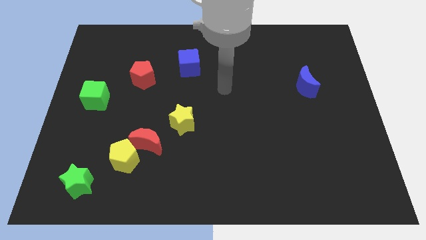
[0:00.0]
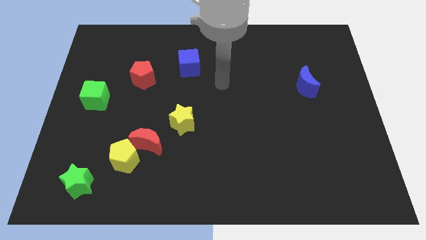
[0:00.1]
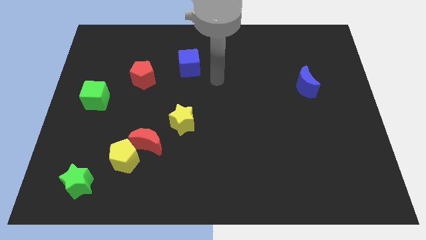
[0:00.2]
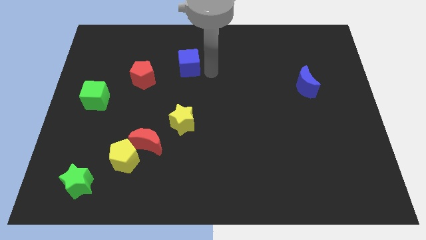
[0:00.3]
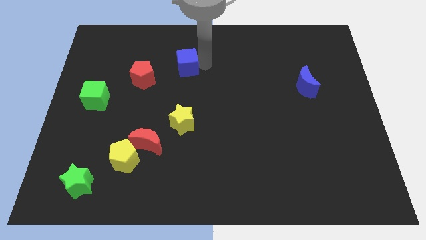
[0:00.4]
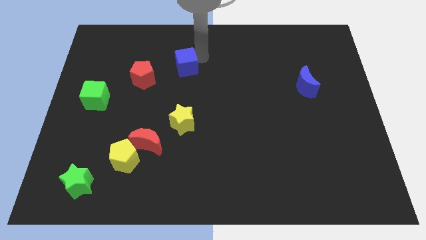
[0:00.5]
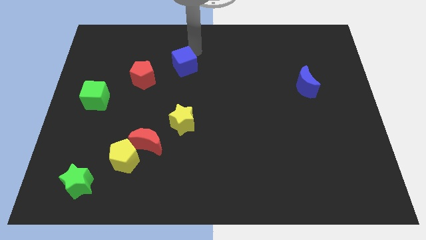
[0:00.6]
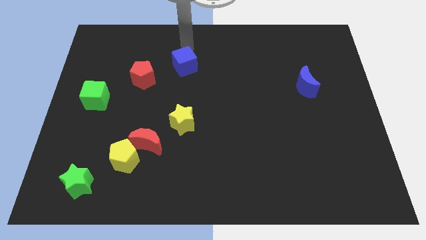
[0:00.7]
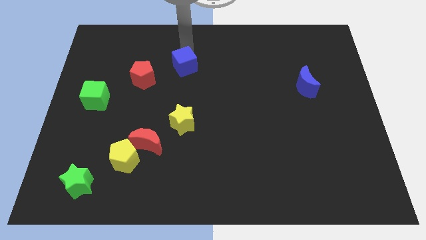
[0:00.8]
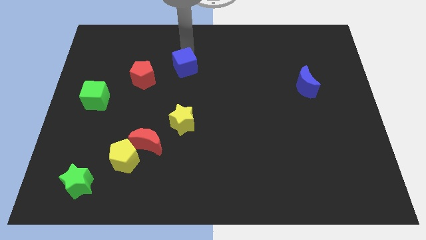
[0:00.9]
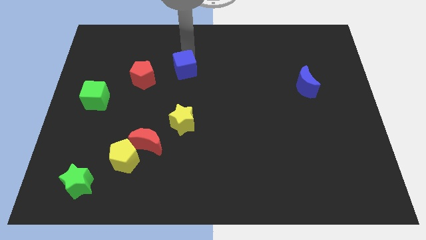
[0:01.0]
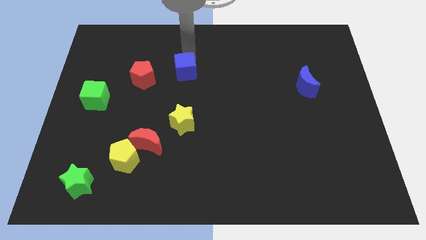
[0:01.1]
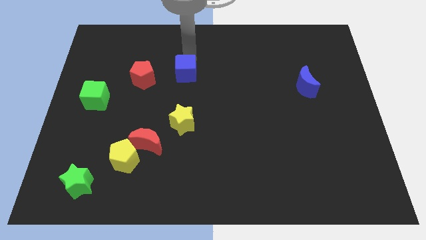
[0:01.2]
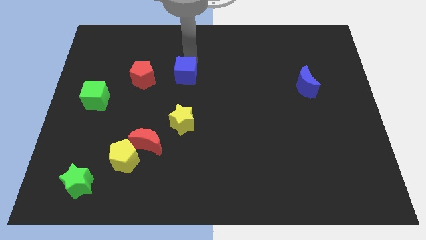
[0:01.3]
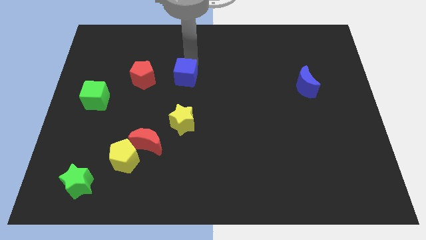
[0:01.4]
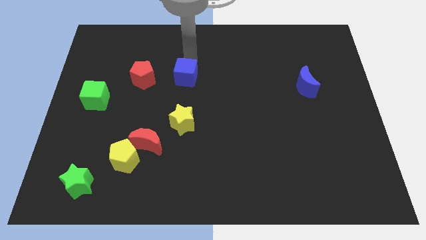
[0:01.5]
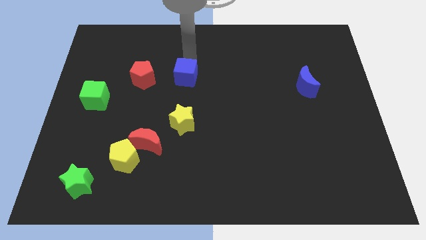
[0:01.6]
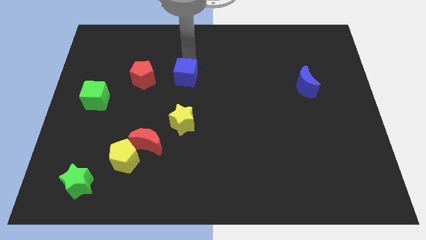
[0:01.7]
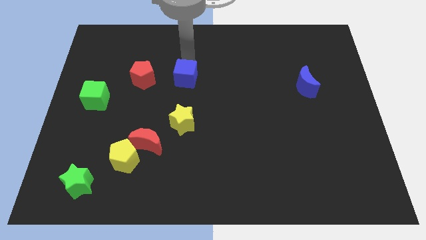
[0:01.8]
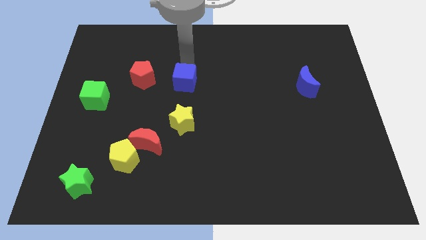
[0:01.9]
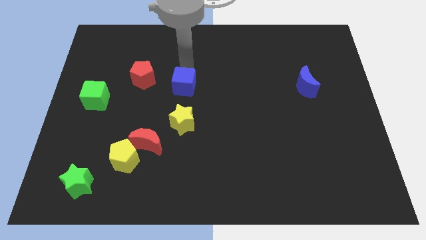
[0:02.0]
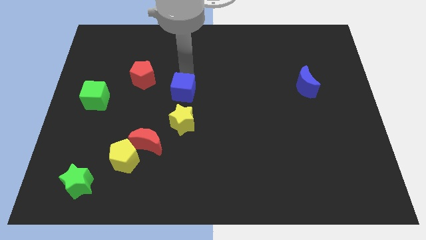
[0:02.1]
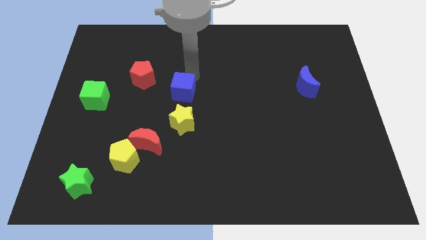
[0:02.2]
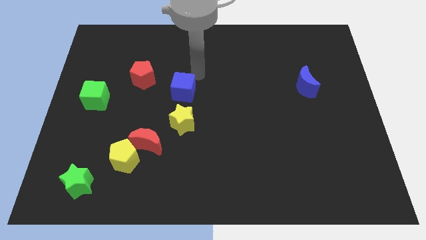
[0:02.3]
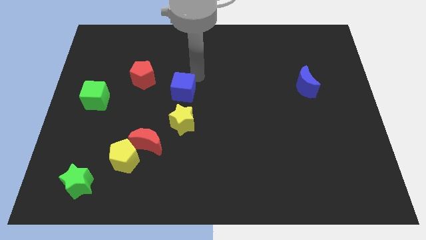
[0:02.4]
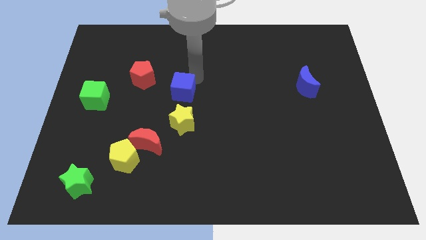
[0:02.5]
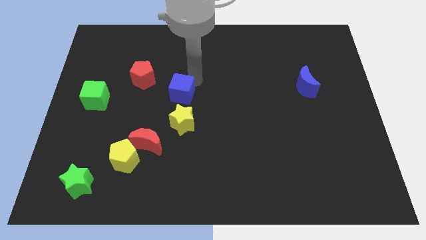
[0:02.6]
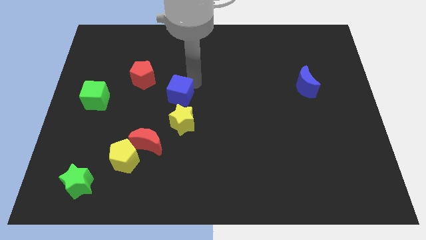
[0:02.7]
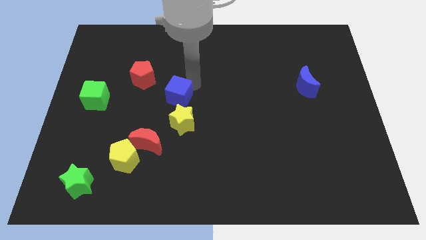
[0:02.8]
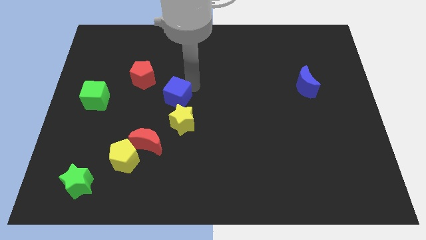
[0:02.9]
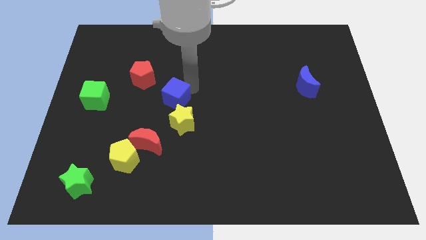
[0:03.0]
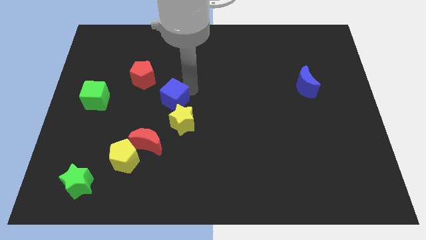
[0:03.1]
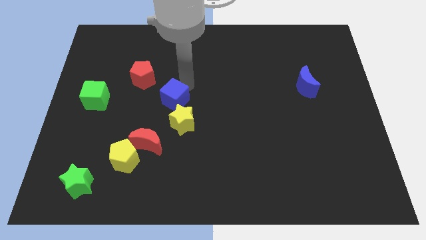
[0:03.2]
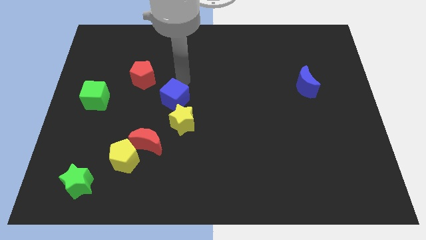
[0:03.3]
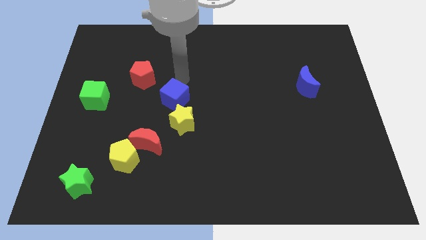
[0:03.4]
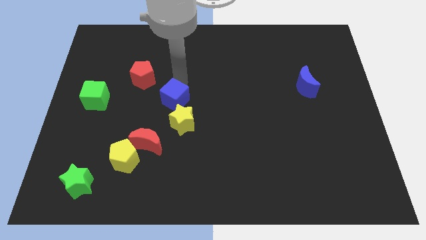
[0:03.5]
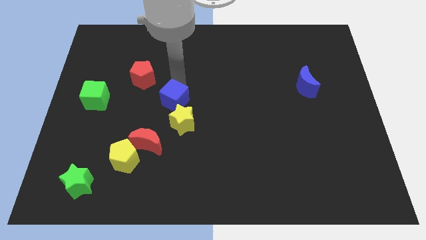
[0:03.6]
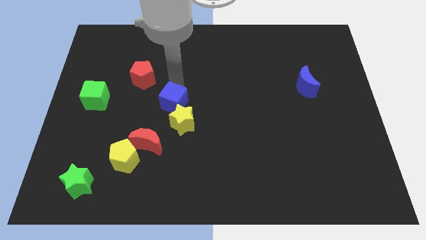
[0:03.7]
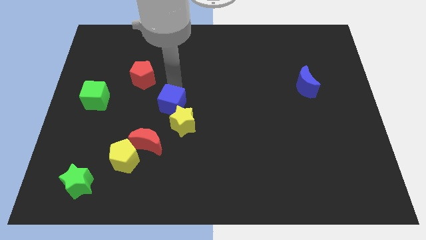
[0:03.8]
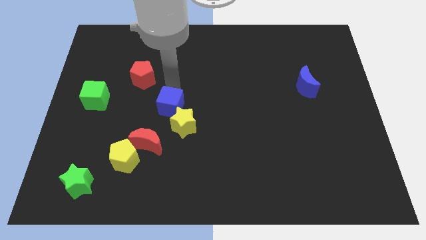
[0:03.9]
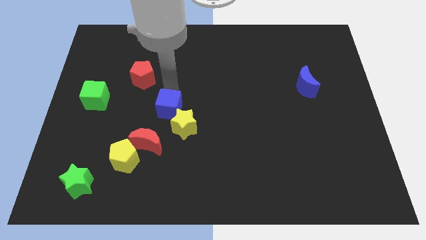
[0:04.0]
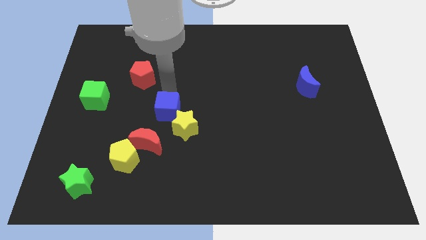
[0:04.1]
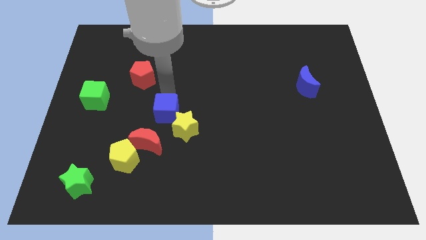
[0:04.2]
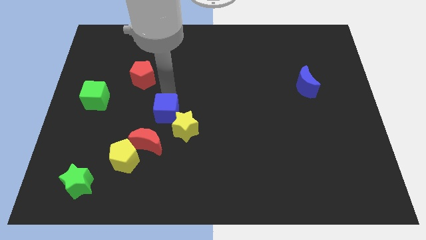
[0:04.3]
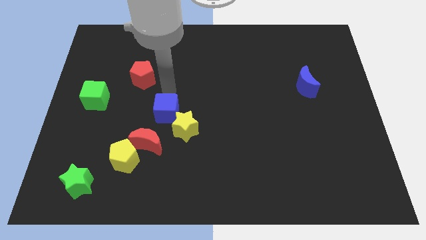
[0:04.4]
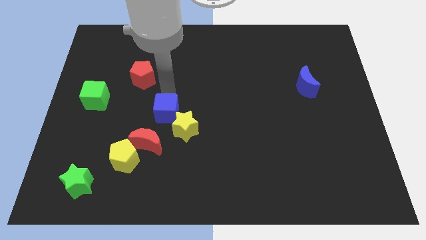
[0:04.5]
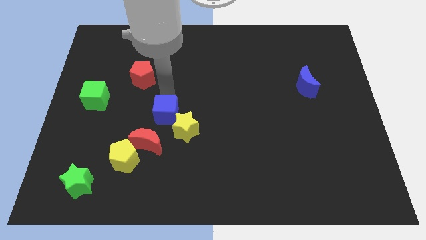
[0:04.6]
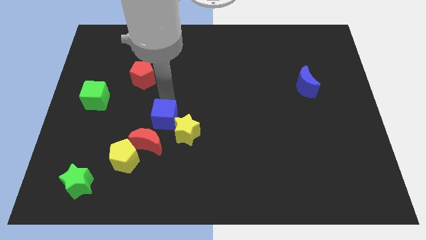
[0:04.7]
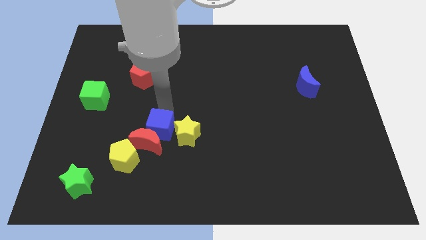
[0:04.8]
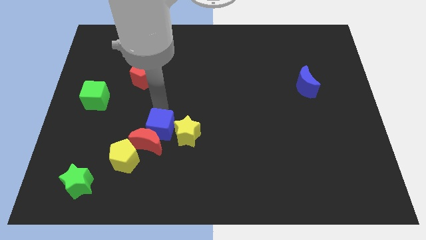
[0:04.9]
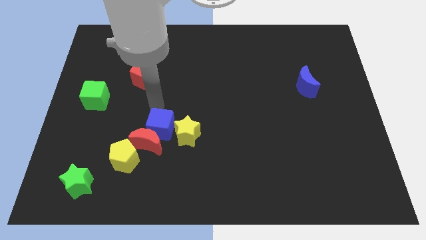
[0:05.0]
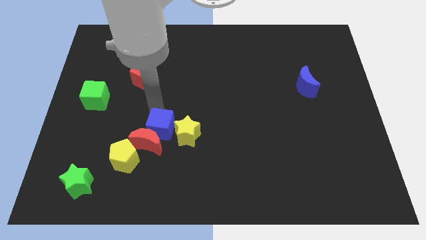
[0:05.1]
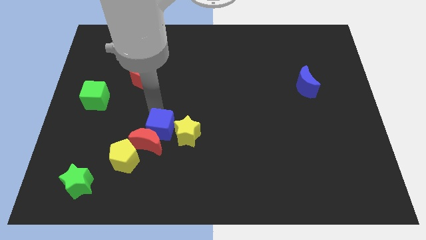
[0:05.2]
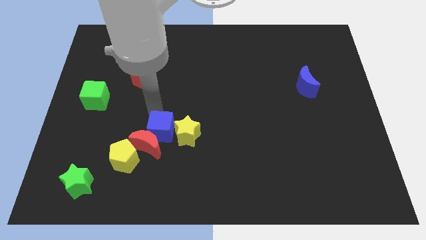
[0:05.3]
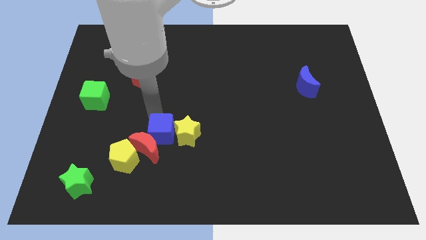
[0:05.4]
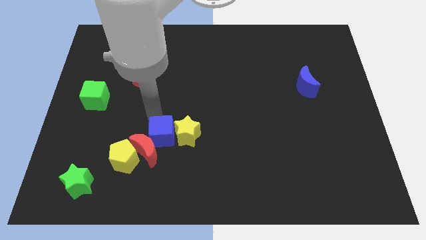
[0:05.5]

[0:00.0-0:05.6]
slide the blue cube down

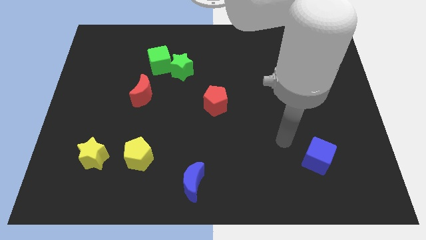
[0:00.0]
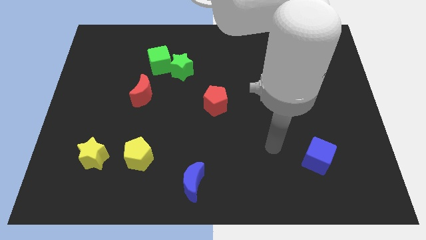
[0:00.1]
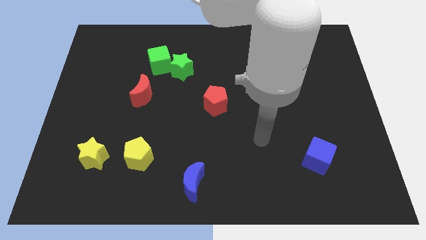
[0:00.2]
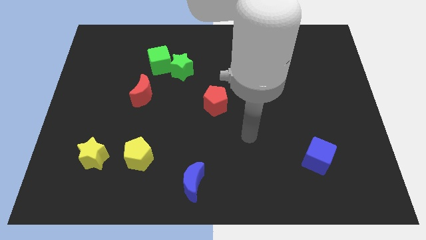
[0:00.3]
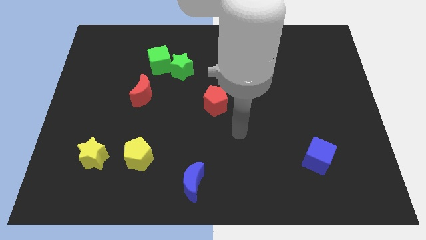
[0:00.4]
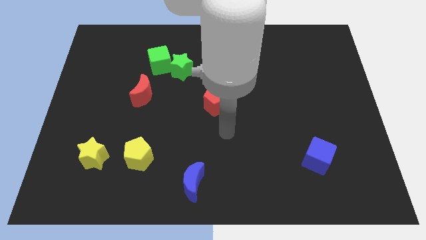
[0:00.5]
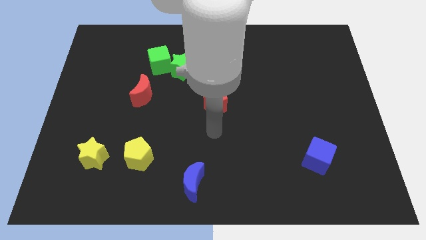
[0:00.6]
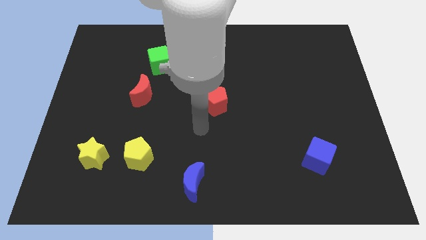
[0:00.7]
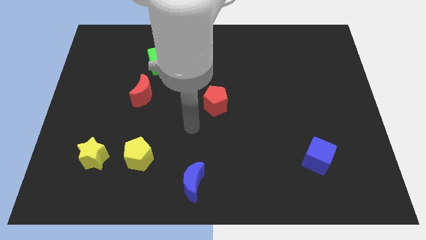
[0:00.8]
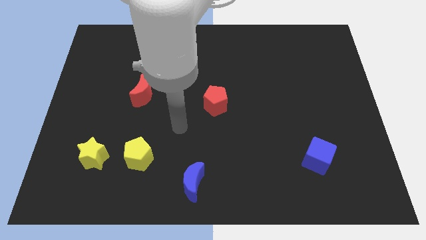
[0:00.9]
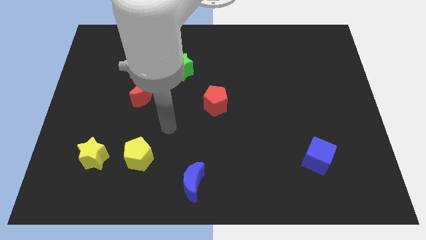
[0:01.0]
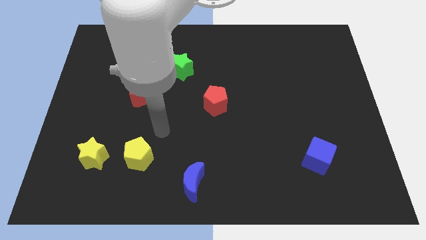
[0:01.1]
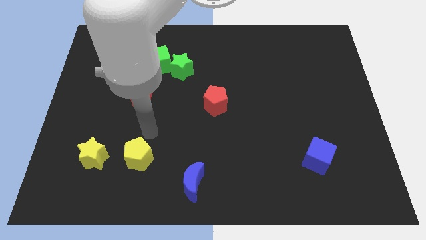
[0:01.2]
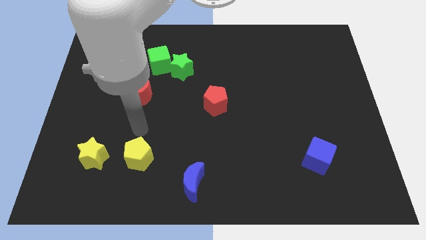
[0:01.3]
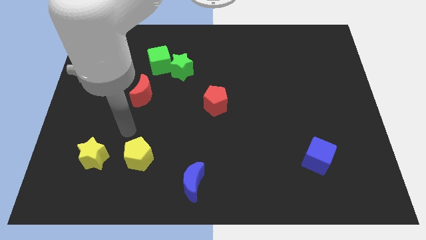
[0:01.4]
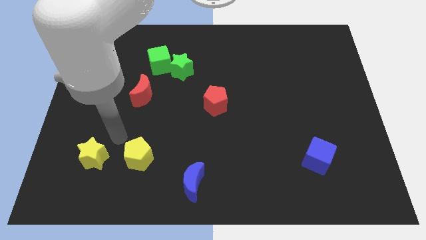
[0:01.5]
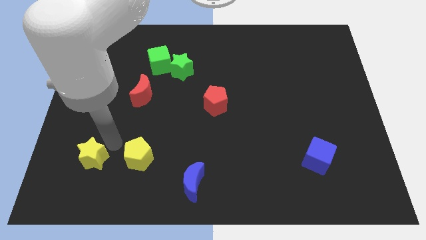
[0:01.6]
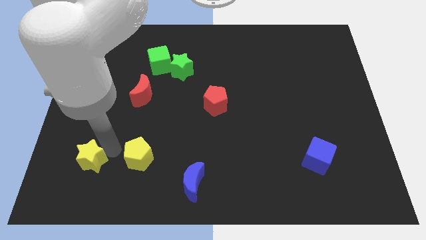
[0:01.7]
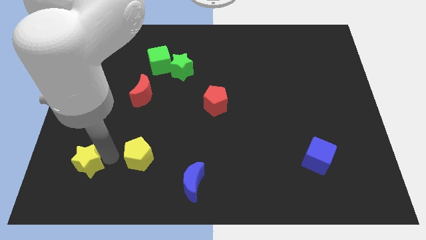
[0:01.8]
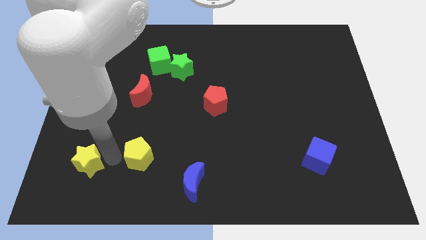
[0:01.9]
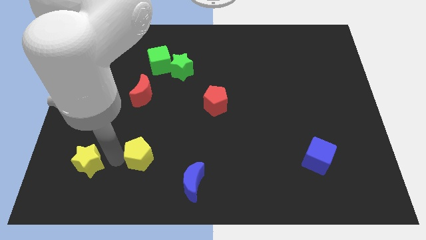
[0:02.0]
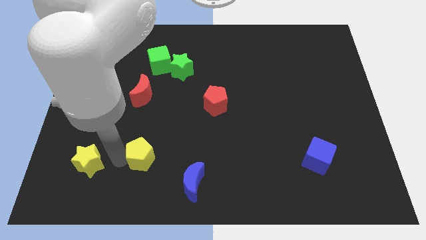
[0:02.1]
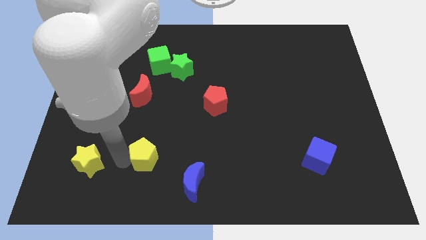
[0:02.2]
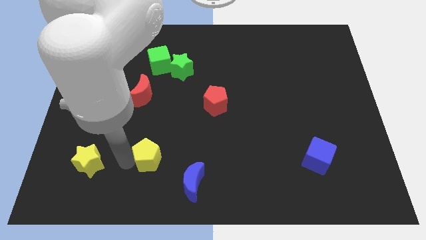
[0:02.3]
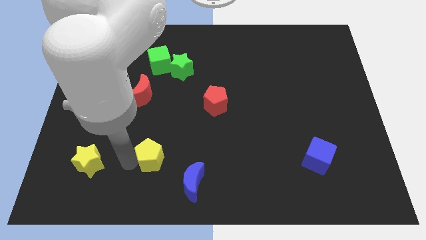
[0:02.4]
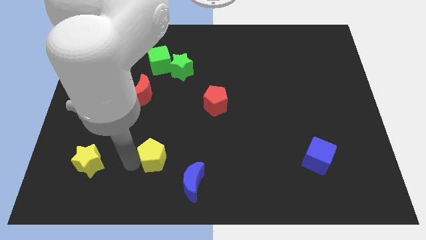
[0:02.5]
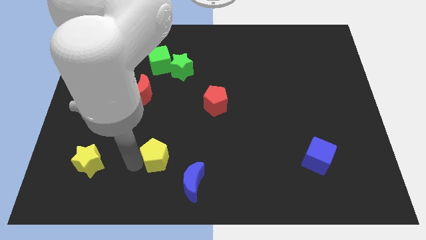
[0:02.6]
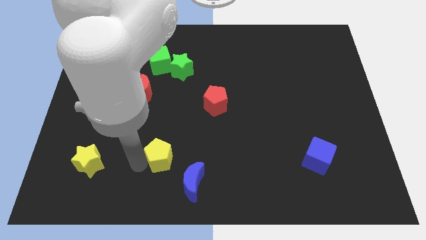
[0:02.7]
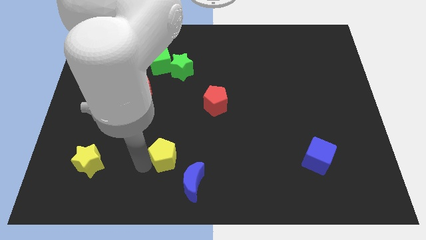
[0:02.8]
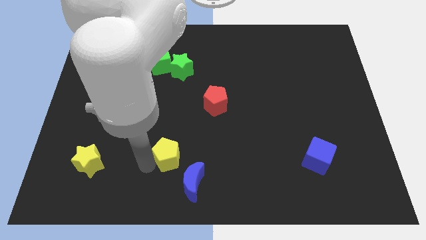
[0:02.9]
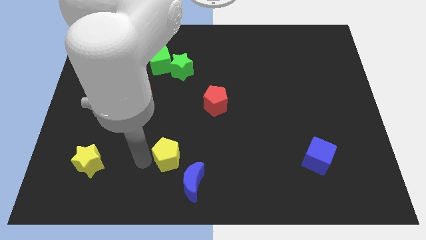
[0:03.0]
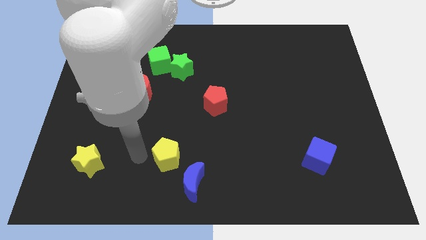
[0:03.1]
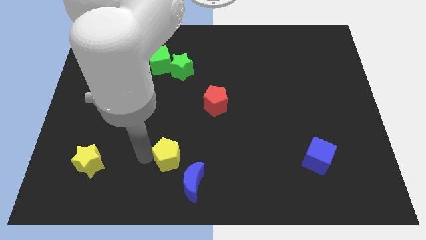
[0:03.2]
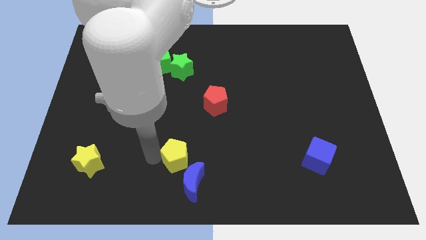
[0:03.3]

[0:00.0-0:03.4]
slide the yellow pentagon a bit to the right
